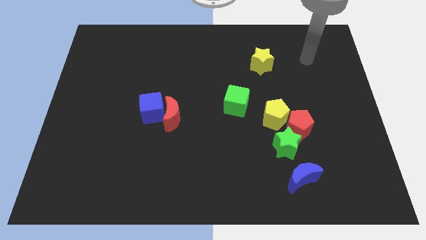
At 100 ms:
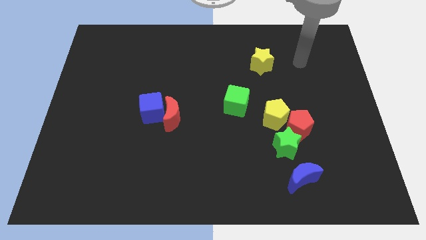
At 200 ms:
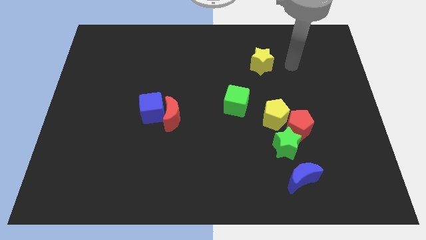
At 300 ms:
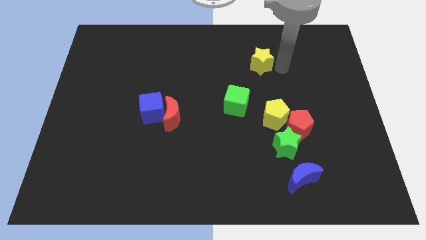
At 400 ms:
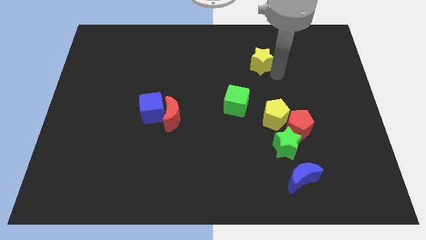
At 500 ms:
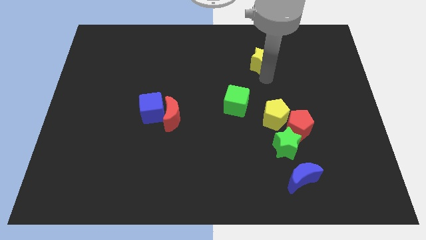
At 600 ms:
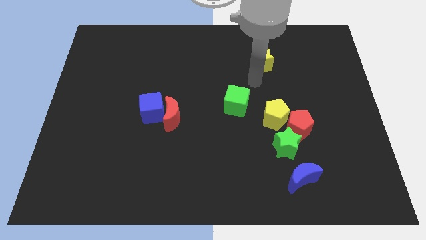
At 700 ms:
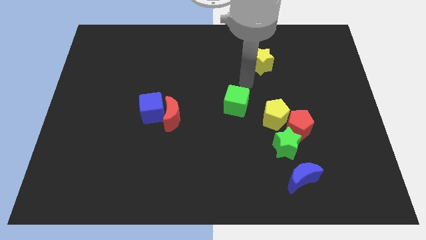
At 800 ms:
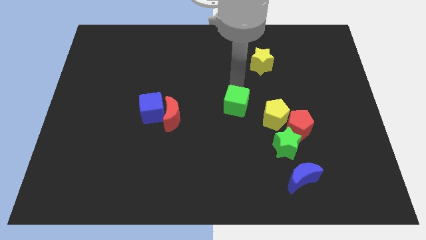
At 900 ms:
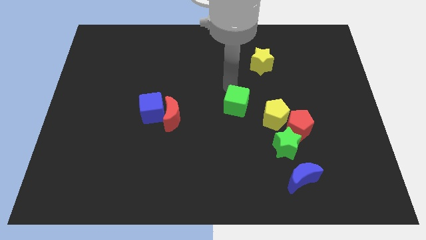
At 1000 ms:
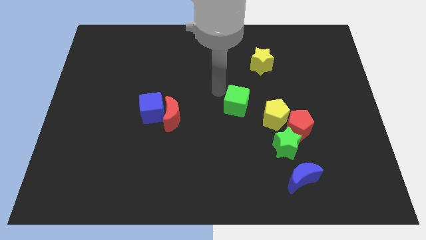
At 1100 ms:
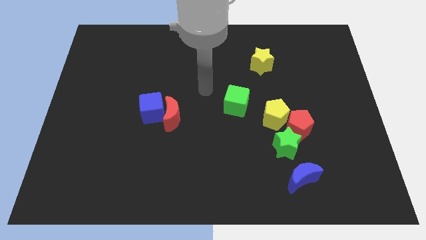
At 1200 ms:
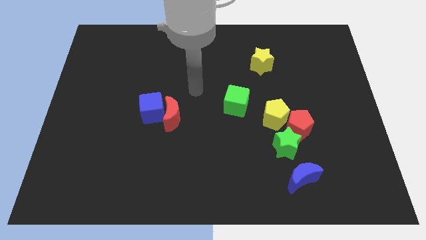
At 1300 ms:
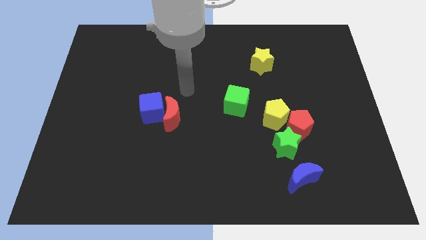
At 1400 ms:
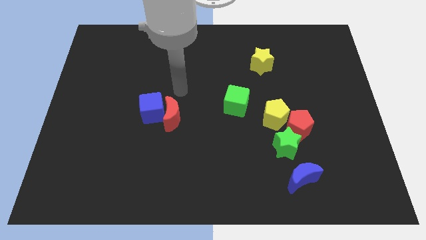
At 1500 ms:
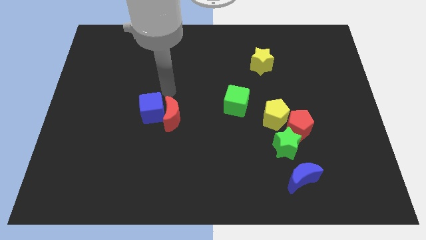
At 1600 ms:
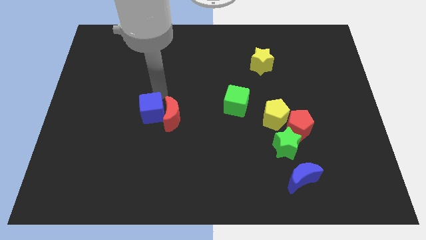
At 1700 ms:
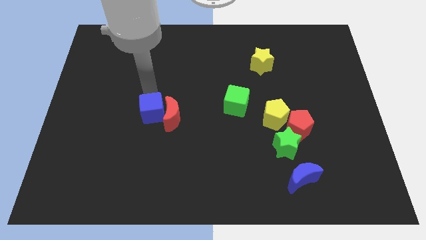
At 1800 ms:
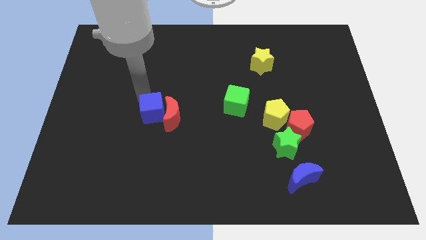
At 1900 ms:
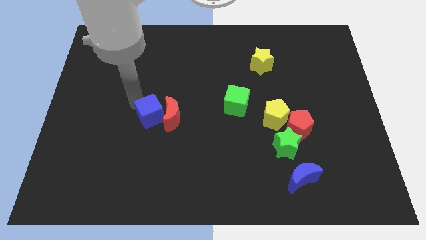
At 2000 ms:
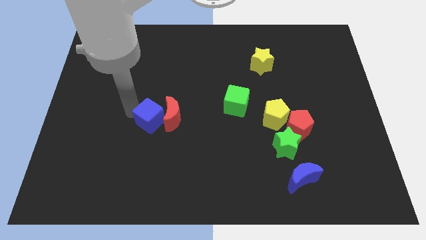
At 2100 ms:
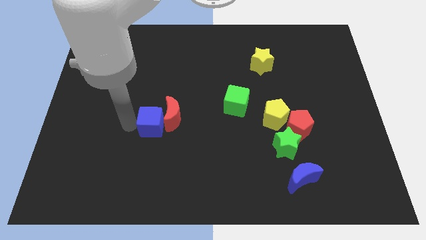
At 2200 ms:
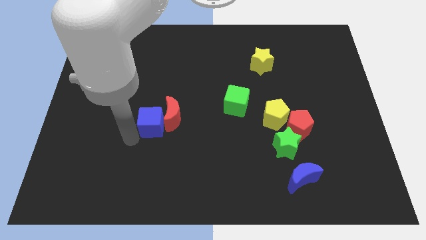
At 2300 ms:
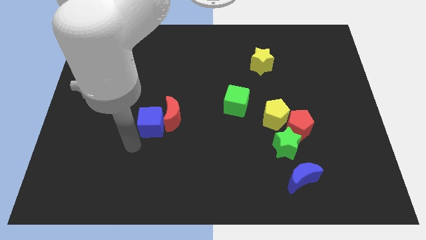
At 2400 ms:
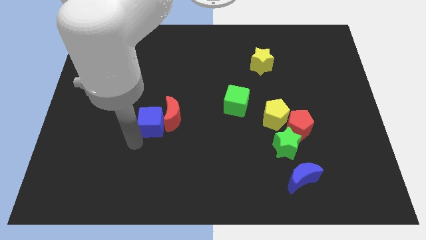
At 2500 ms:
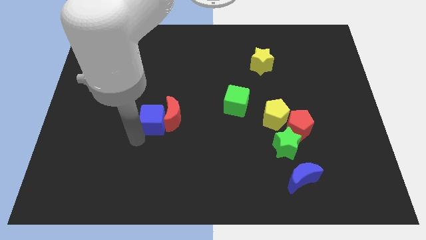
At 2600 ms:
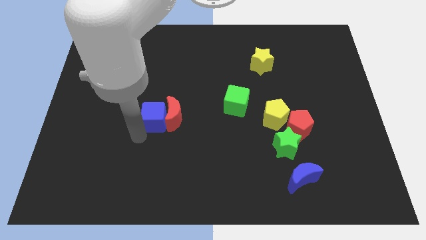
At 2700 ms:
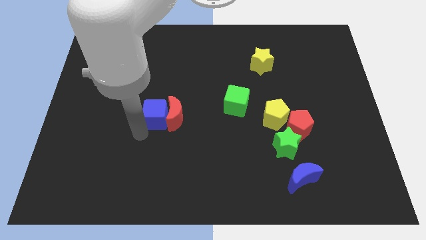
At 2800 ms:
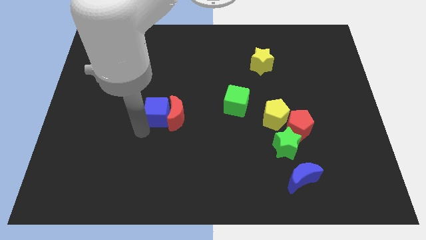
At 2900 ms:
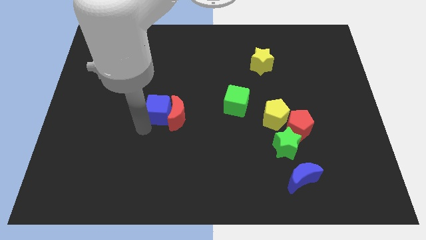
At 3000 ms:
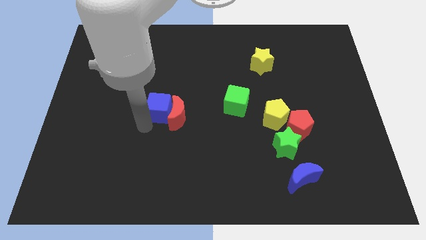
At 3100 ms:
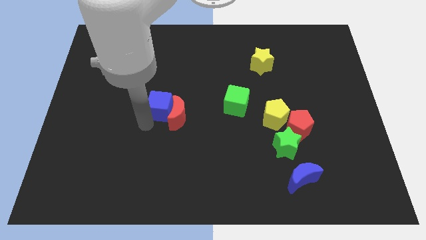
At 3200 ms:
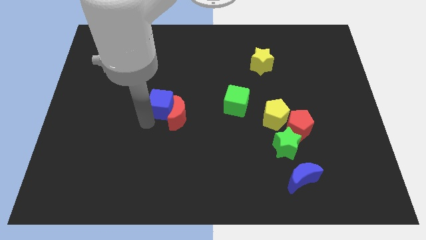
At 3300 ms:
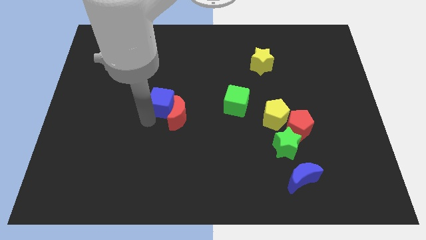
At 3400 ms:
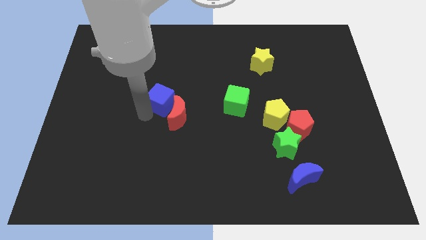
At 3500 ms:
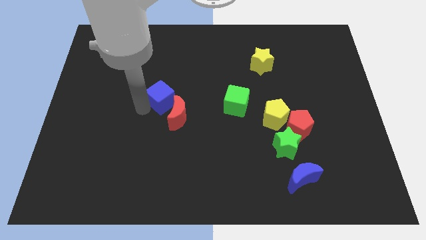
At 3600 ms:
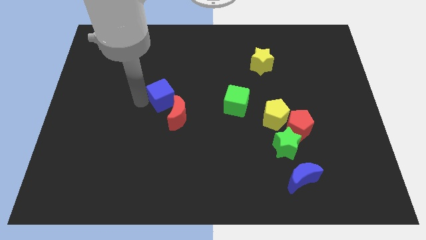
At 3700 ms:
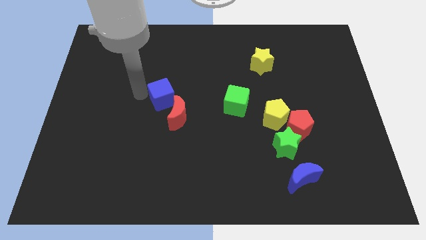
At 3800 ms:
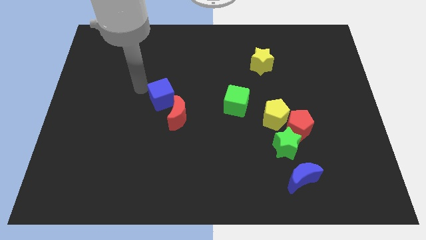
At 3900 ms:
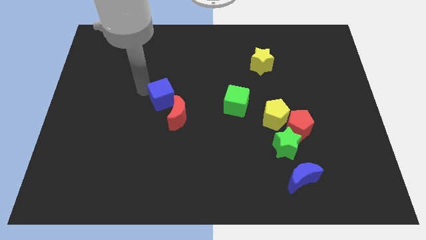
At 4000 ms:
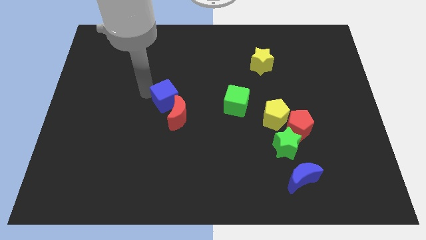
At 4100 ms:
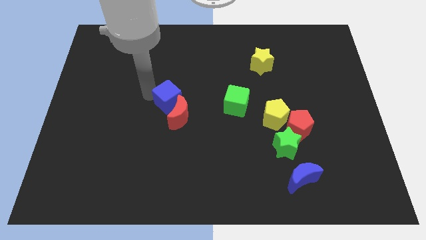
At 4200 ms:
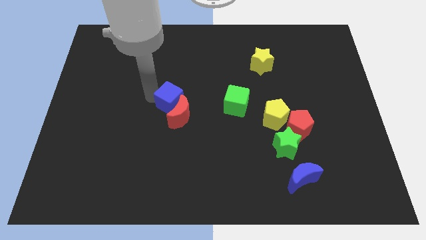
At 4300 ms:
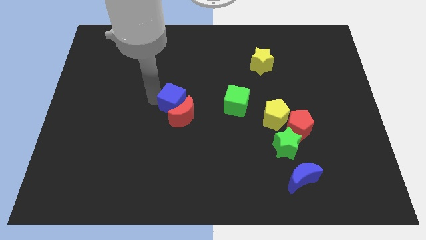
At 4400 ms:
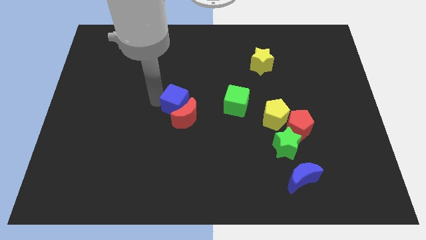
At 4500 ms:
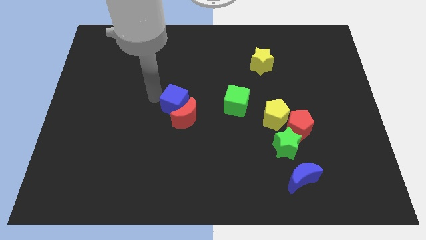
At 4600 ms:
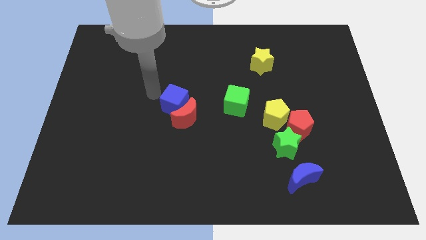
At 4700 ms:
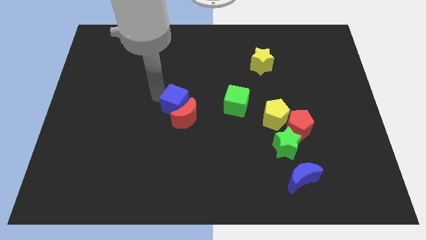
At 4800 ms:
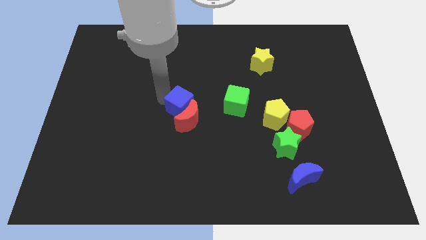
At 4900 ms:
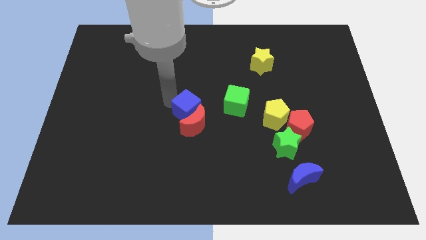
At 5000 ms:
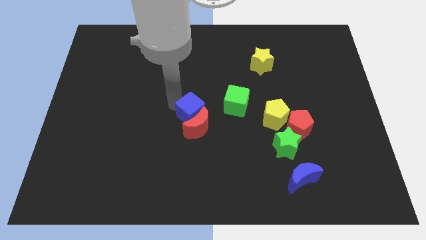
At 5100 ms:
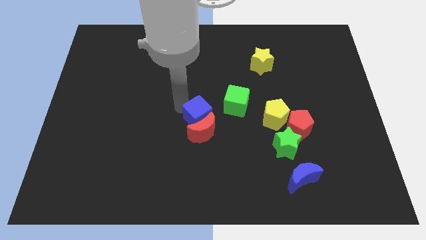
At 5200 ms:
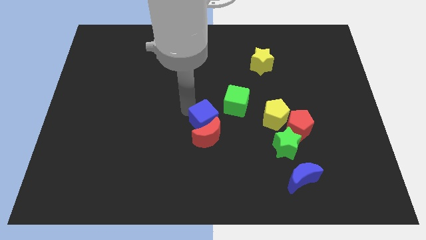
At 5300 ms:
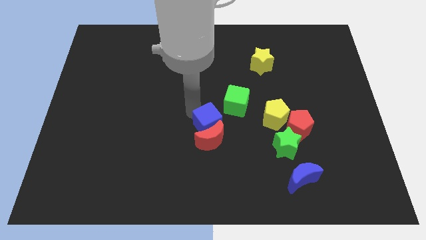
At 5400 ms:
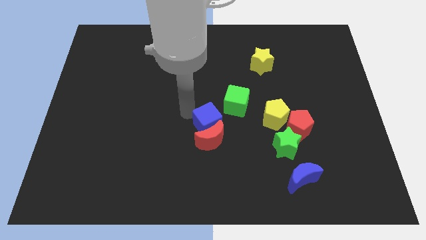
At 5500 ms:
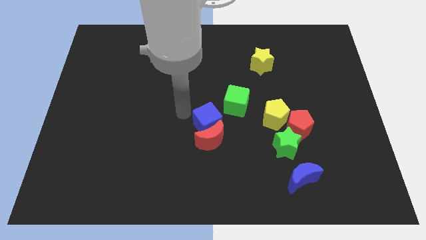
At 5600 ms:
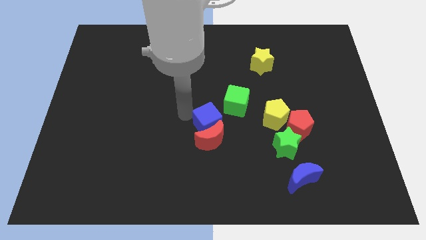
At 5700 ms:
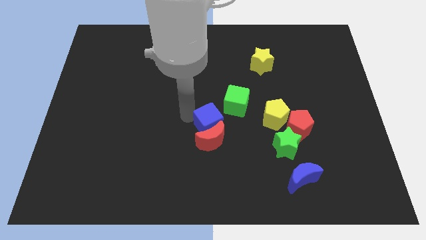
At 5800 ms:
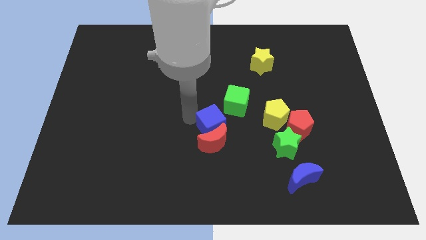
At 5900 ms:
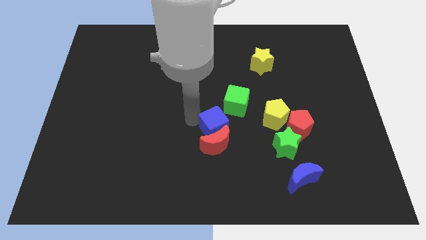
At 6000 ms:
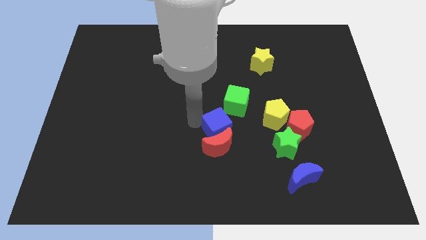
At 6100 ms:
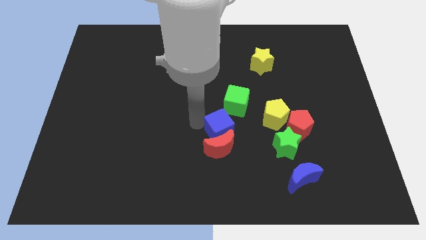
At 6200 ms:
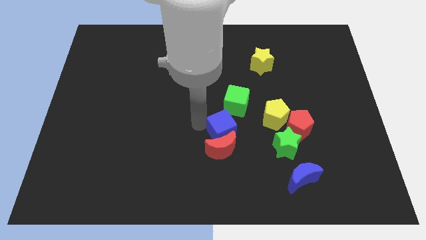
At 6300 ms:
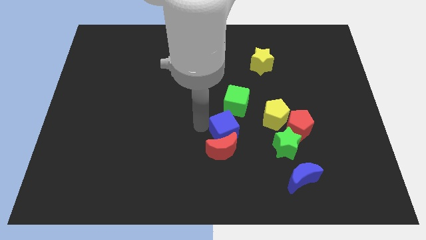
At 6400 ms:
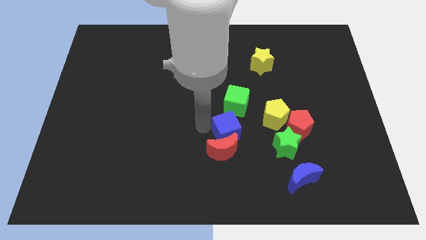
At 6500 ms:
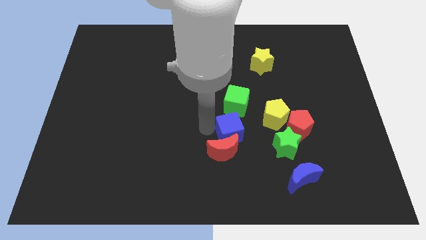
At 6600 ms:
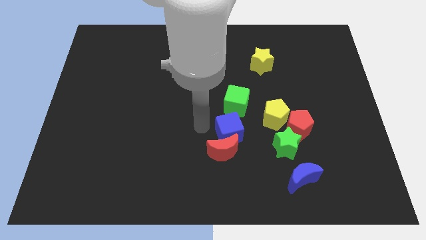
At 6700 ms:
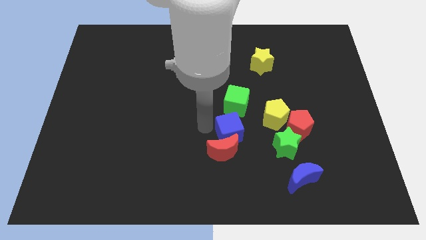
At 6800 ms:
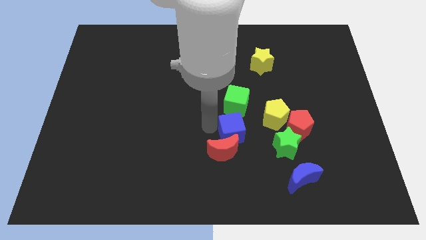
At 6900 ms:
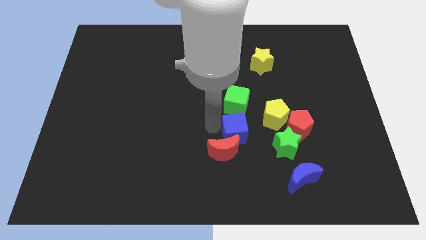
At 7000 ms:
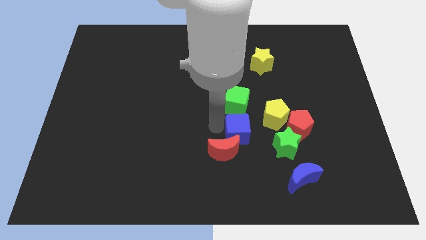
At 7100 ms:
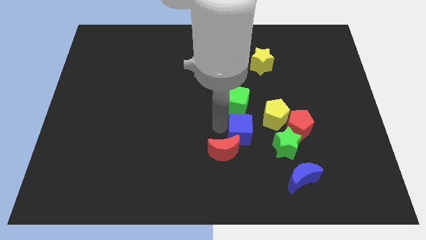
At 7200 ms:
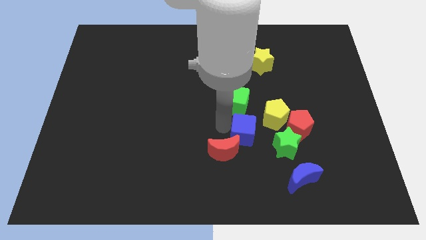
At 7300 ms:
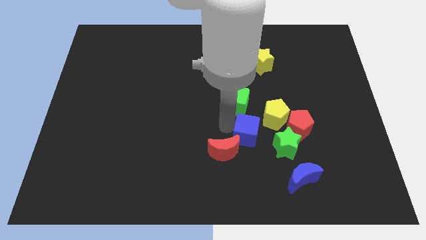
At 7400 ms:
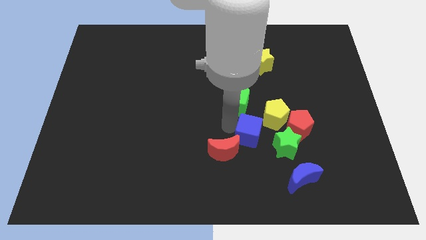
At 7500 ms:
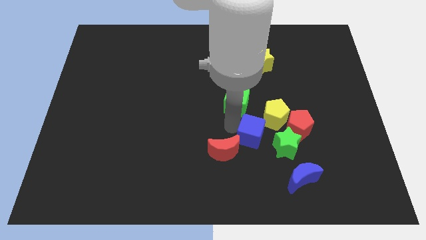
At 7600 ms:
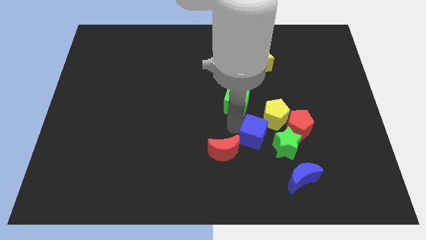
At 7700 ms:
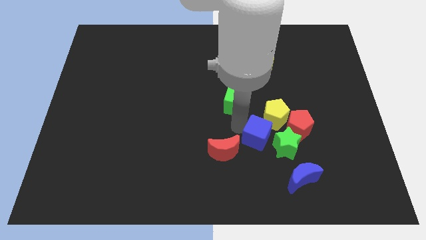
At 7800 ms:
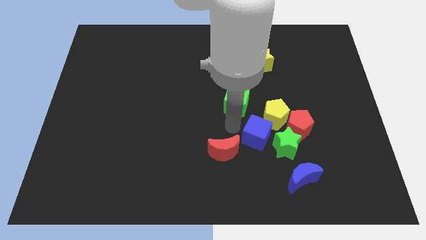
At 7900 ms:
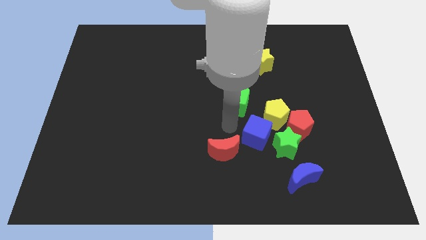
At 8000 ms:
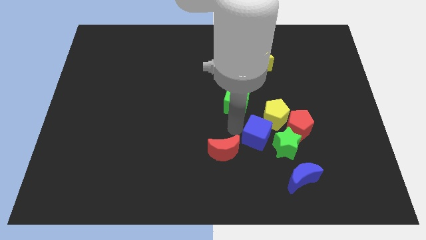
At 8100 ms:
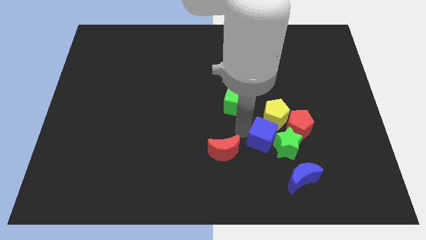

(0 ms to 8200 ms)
move the blue cube next to the green star
